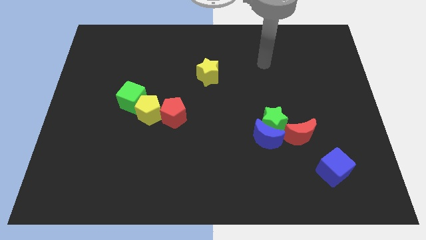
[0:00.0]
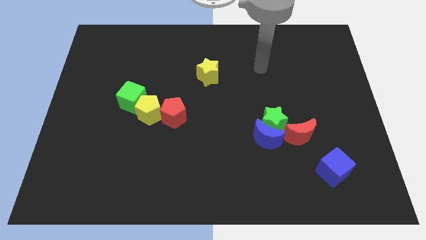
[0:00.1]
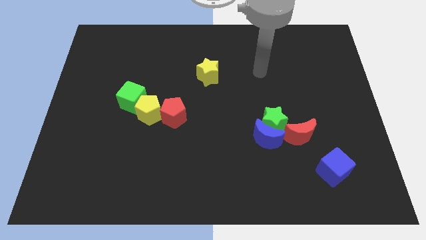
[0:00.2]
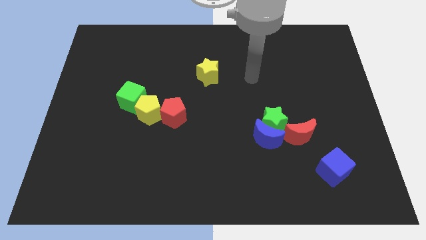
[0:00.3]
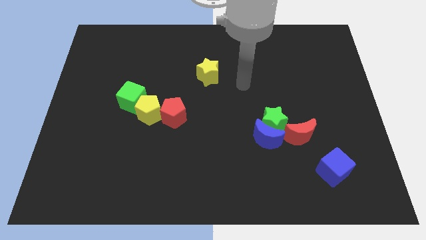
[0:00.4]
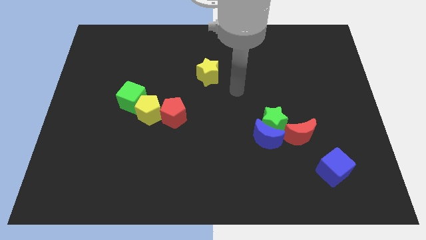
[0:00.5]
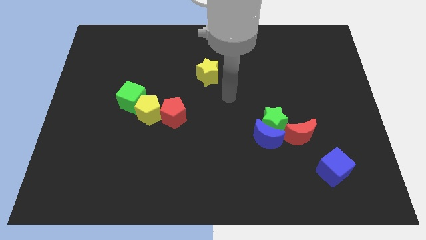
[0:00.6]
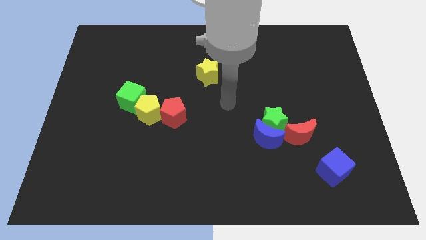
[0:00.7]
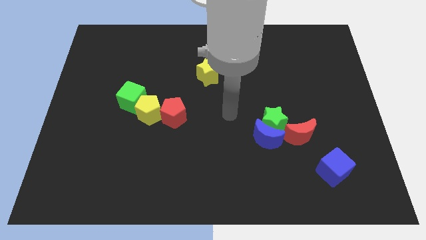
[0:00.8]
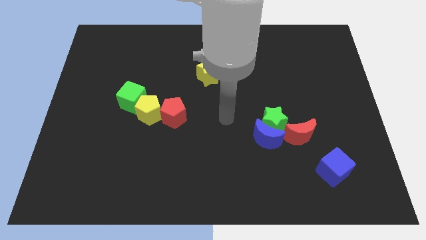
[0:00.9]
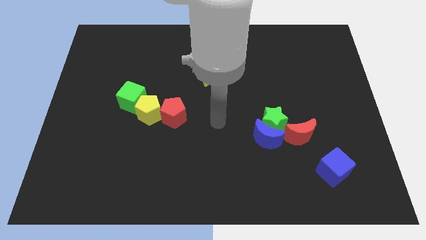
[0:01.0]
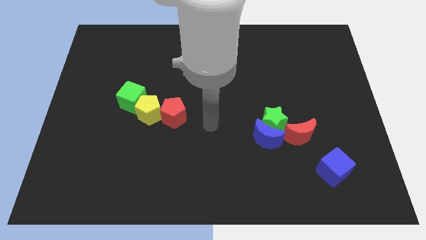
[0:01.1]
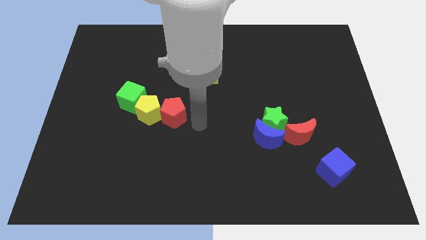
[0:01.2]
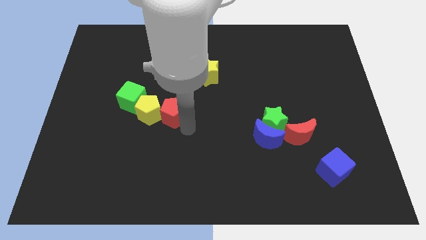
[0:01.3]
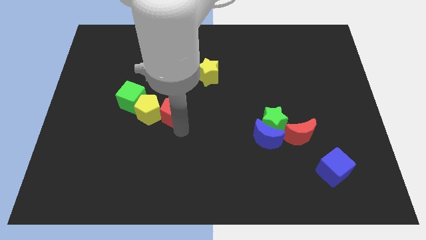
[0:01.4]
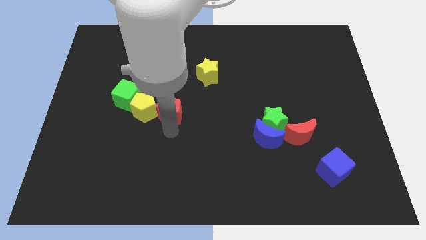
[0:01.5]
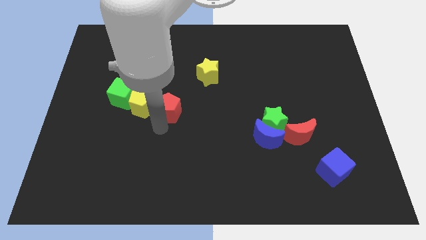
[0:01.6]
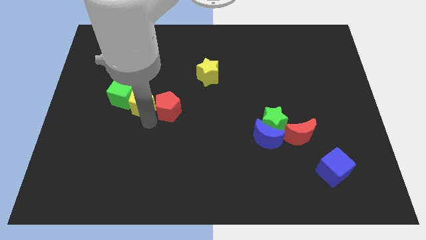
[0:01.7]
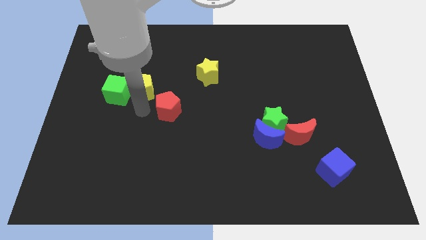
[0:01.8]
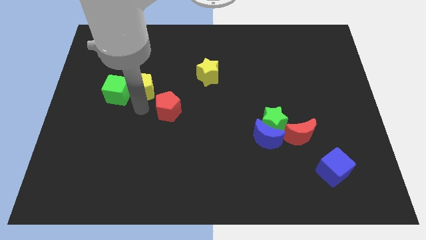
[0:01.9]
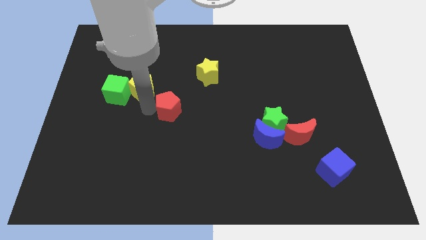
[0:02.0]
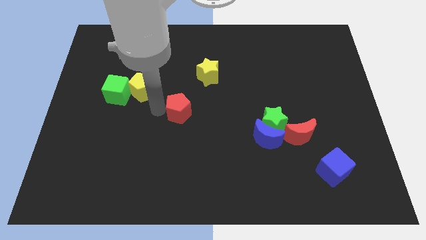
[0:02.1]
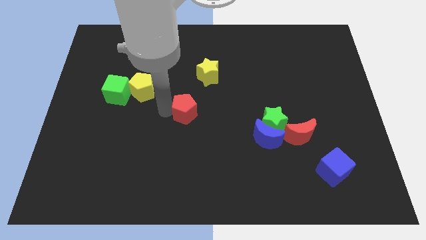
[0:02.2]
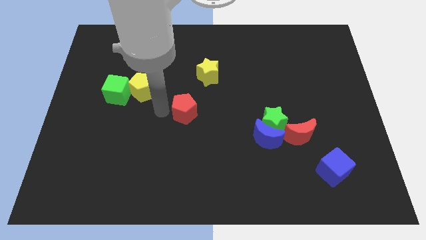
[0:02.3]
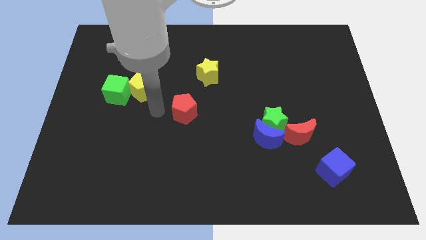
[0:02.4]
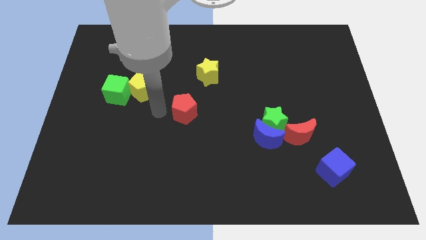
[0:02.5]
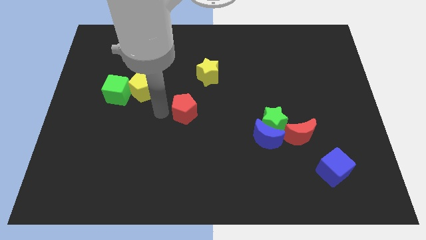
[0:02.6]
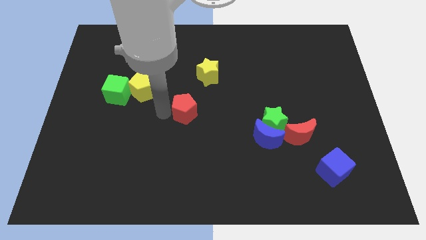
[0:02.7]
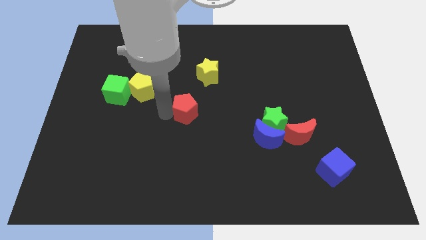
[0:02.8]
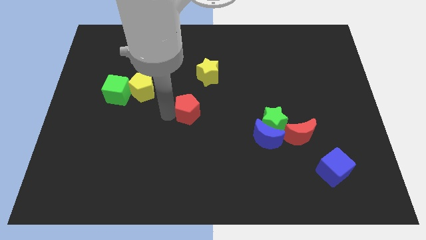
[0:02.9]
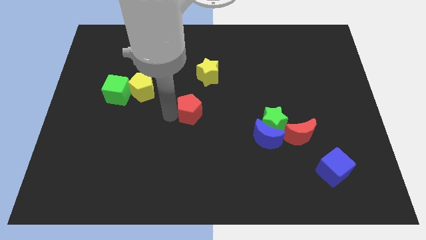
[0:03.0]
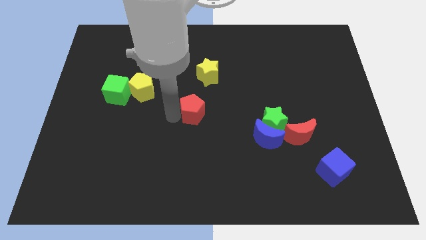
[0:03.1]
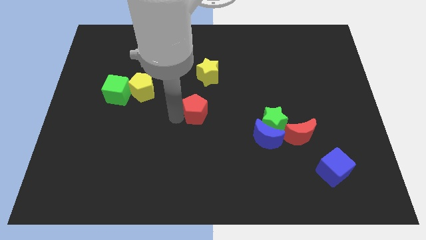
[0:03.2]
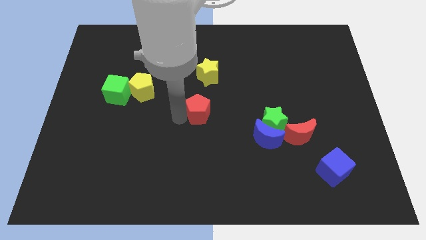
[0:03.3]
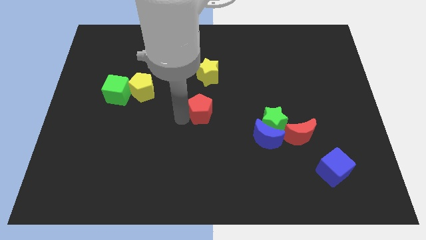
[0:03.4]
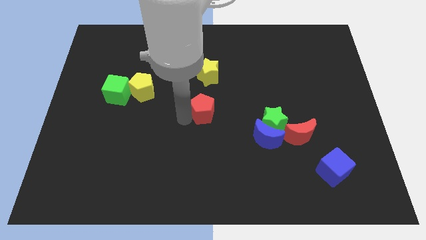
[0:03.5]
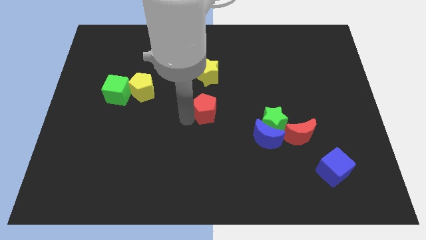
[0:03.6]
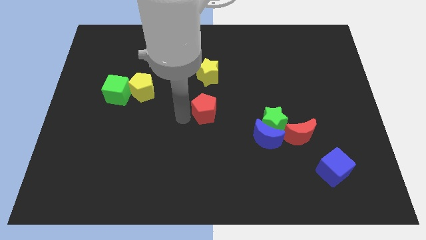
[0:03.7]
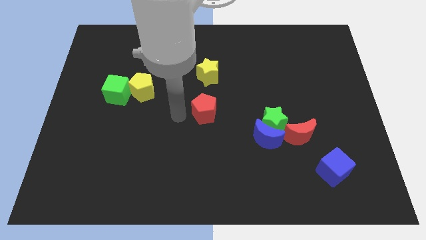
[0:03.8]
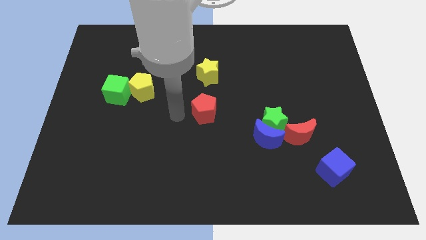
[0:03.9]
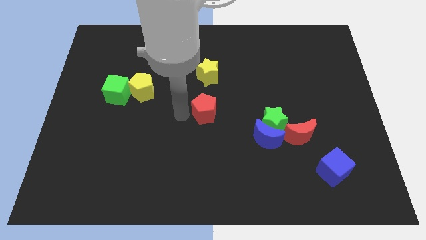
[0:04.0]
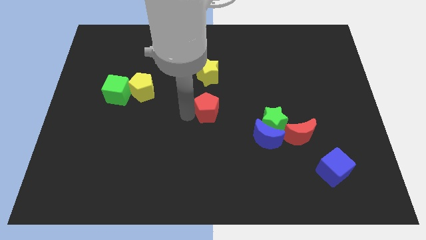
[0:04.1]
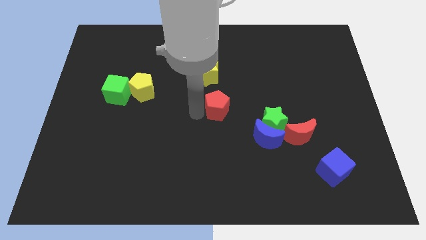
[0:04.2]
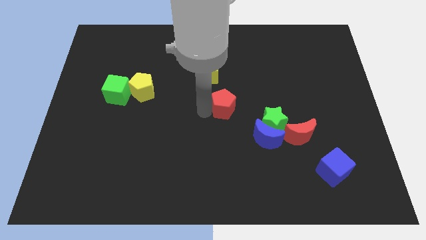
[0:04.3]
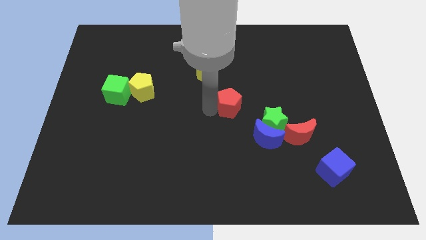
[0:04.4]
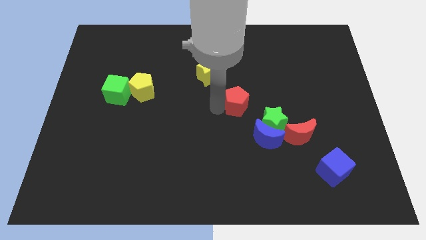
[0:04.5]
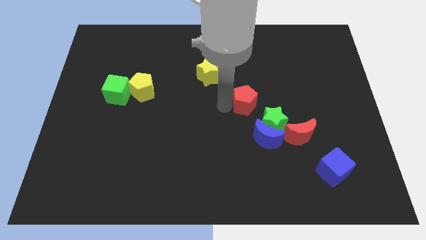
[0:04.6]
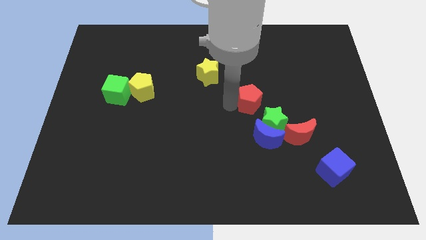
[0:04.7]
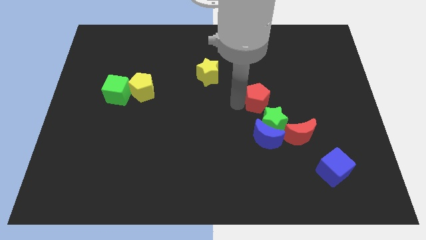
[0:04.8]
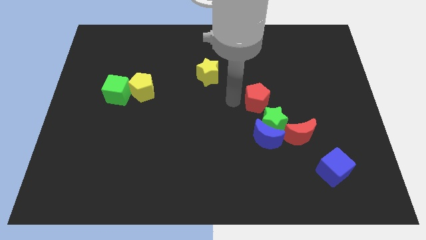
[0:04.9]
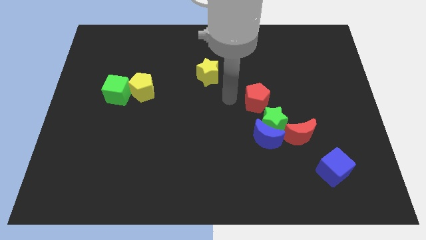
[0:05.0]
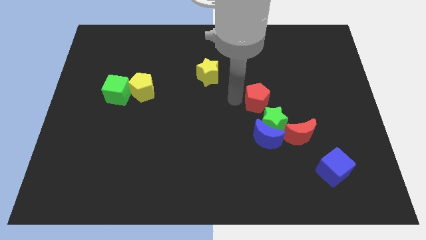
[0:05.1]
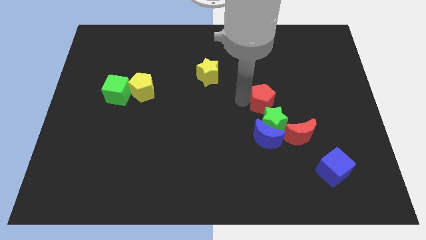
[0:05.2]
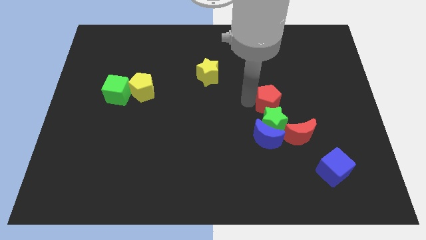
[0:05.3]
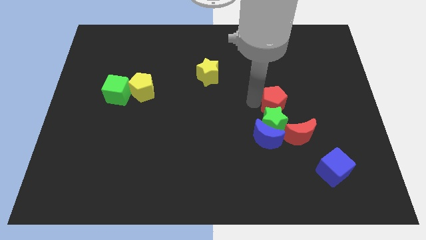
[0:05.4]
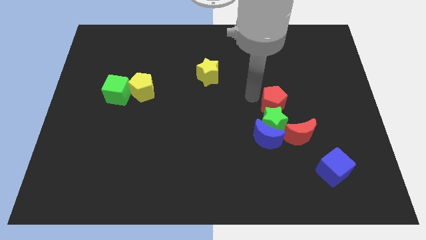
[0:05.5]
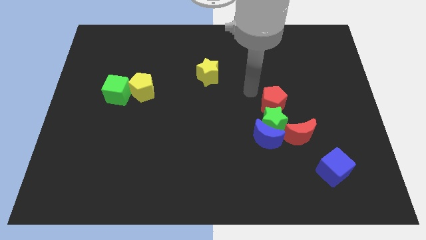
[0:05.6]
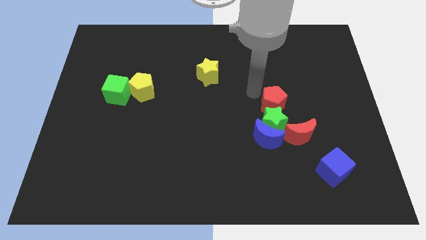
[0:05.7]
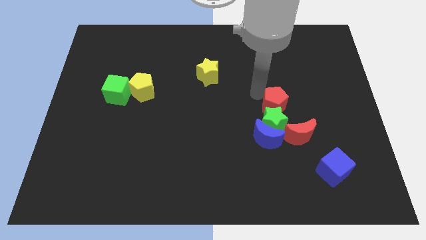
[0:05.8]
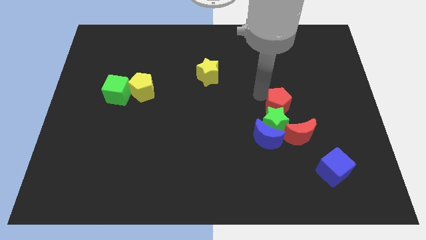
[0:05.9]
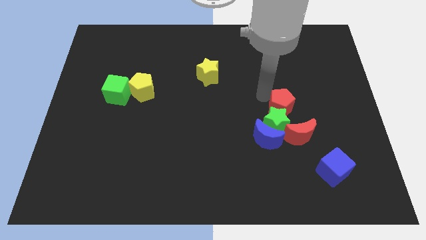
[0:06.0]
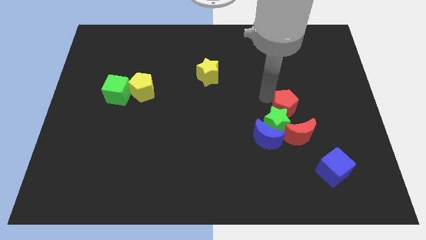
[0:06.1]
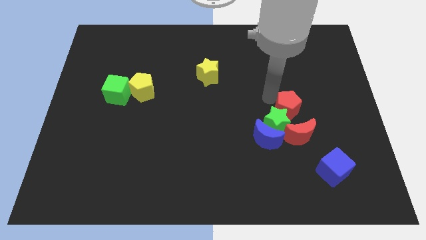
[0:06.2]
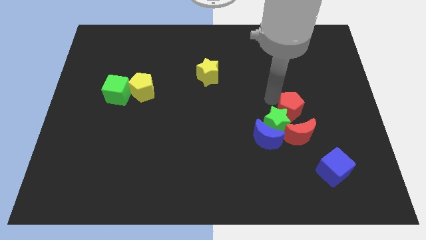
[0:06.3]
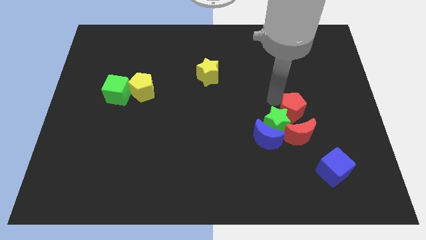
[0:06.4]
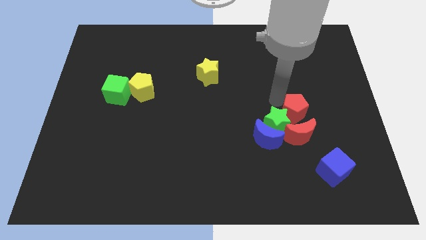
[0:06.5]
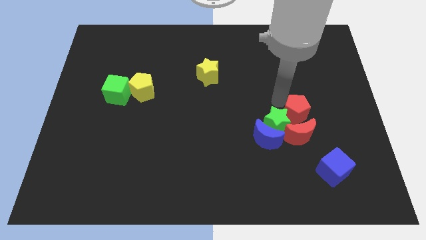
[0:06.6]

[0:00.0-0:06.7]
move the red pentagon next to the red moon

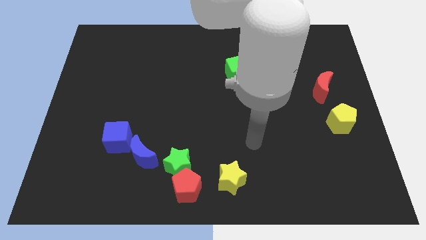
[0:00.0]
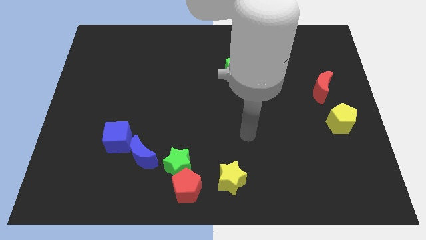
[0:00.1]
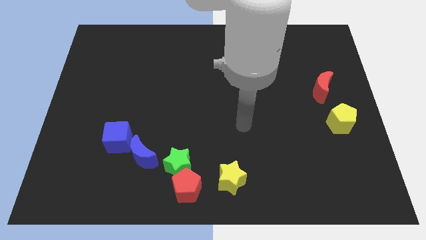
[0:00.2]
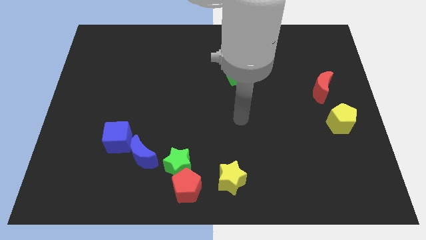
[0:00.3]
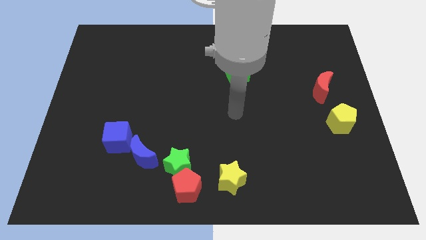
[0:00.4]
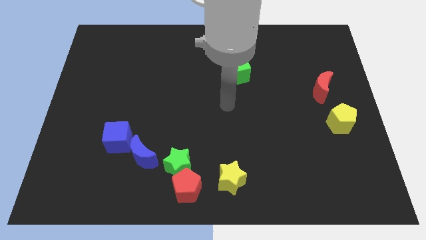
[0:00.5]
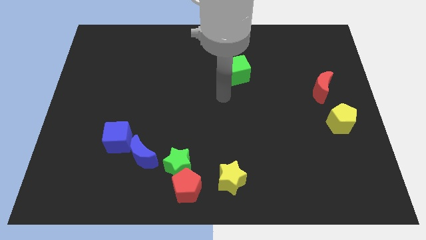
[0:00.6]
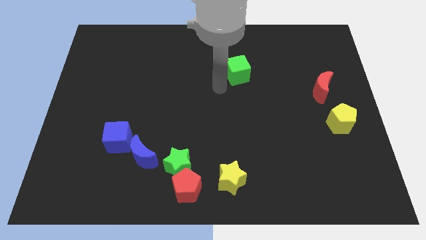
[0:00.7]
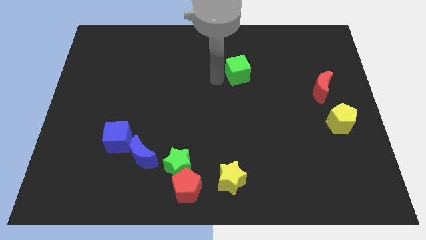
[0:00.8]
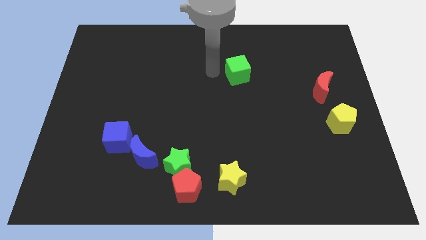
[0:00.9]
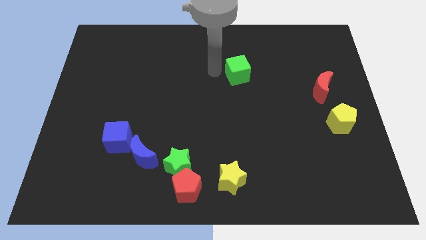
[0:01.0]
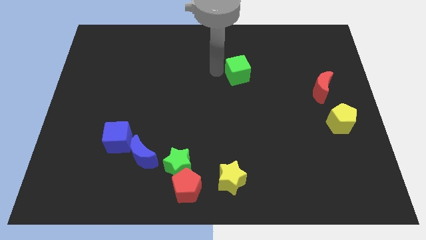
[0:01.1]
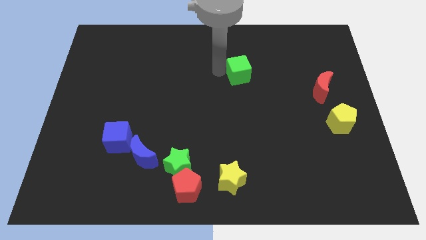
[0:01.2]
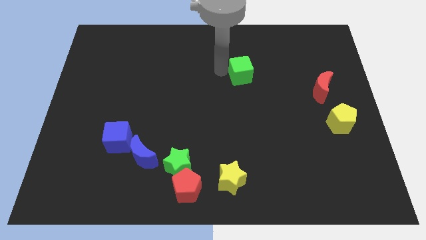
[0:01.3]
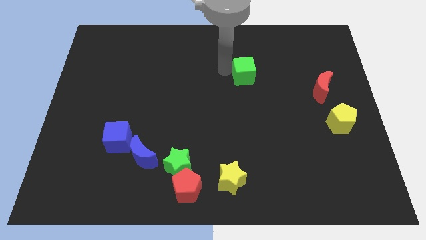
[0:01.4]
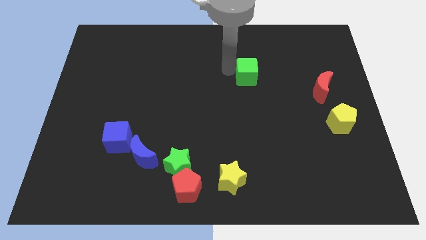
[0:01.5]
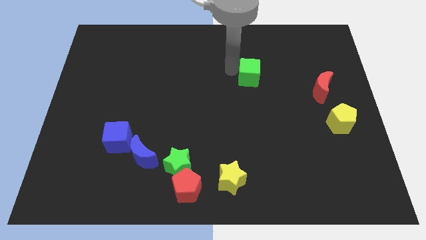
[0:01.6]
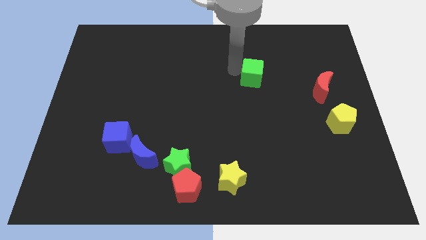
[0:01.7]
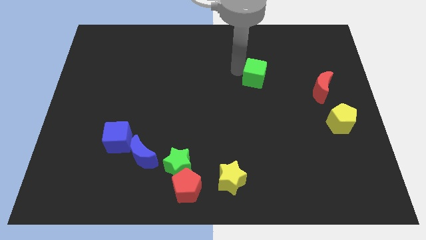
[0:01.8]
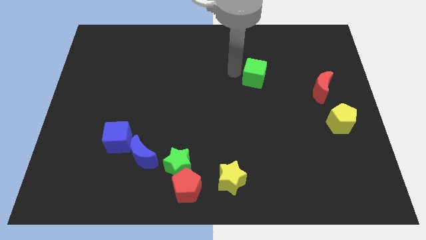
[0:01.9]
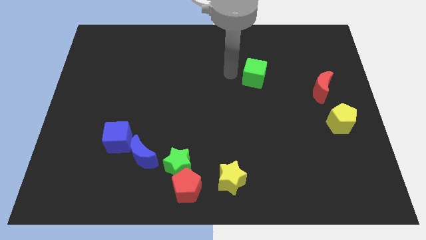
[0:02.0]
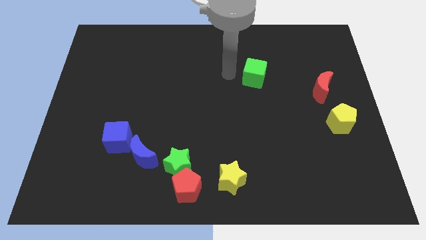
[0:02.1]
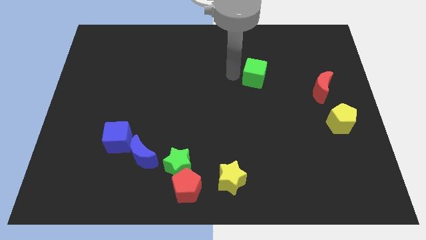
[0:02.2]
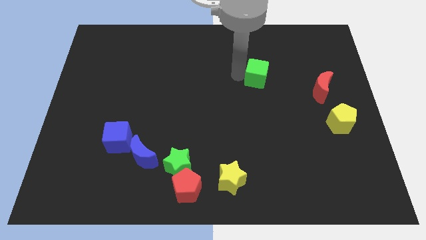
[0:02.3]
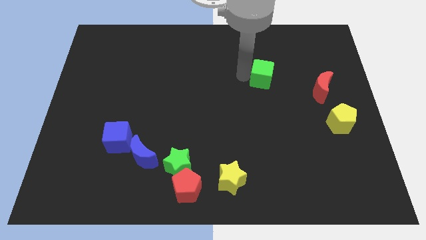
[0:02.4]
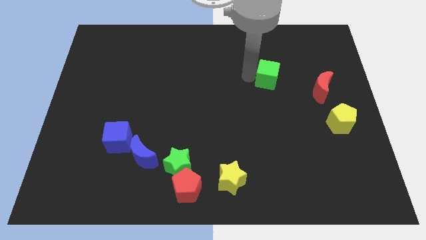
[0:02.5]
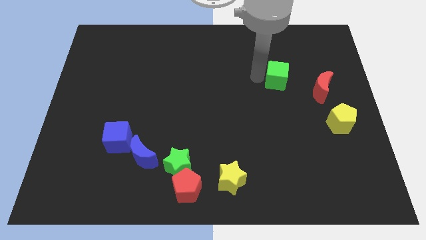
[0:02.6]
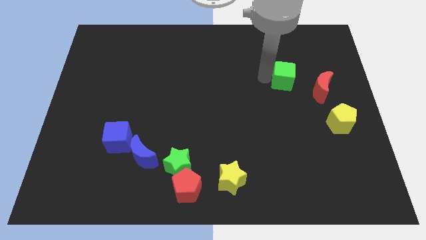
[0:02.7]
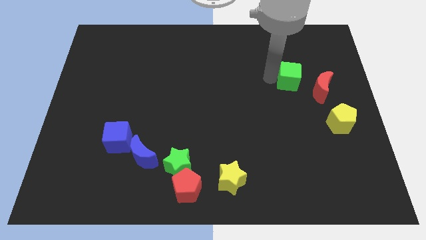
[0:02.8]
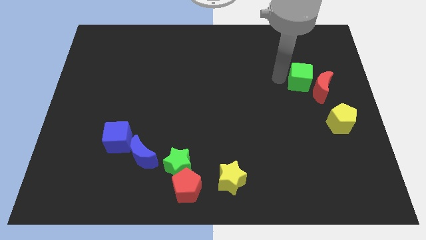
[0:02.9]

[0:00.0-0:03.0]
push the green cube to the red moon
